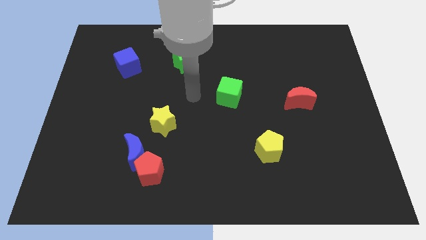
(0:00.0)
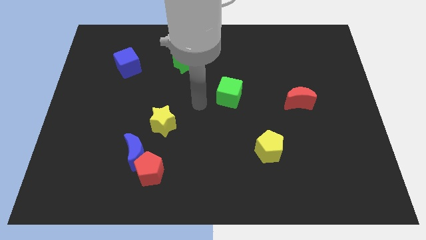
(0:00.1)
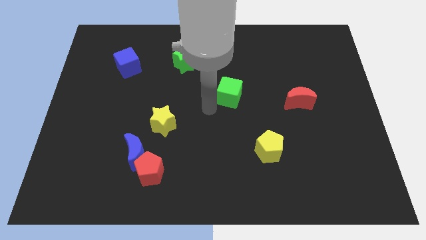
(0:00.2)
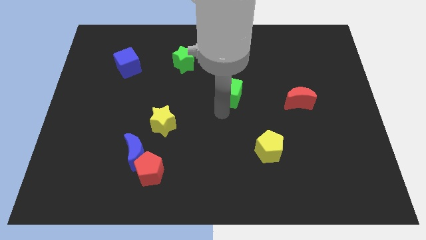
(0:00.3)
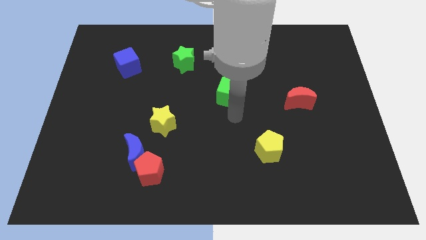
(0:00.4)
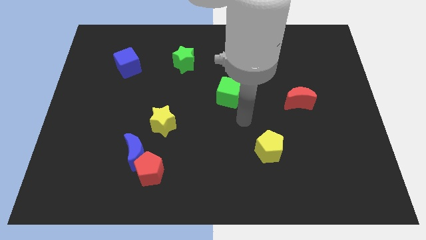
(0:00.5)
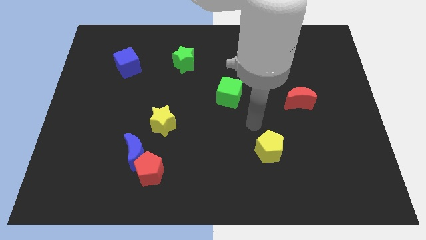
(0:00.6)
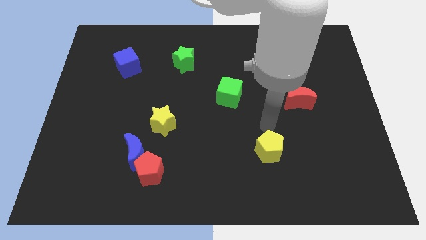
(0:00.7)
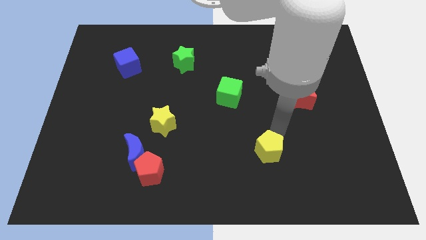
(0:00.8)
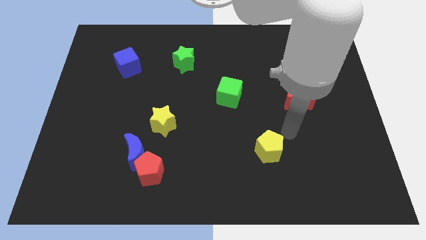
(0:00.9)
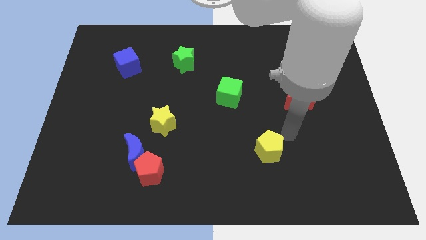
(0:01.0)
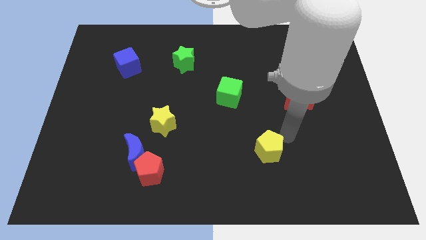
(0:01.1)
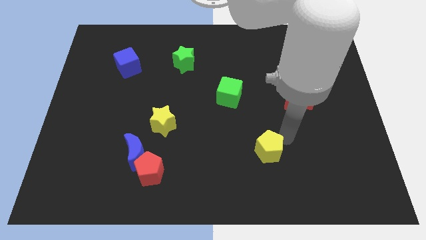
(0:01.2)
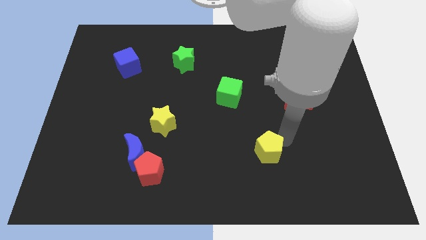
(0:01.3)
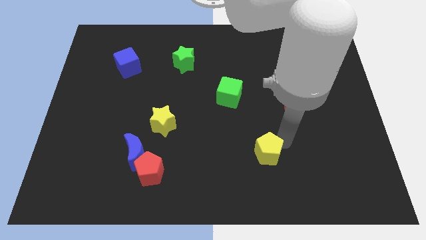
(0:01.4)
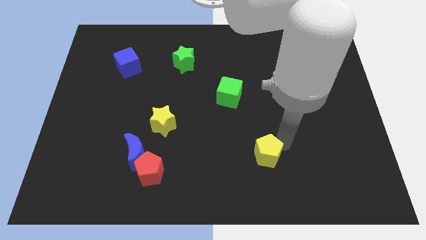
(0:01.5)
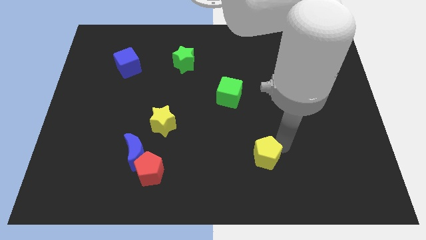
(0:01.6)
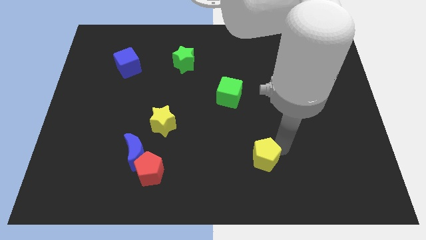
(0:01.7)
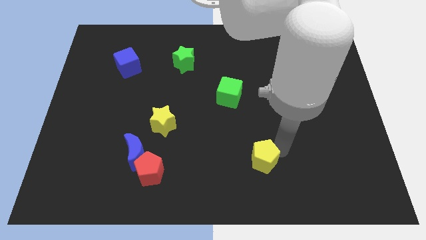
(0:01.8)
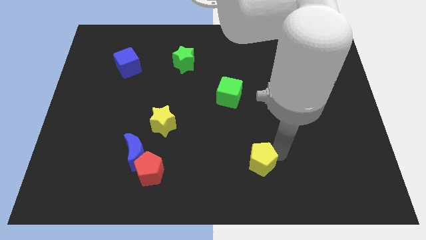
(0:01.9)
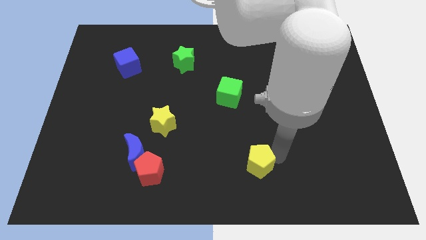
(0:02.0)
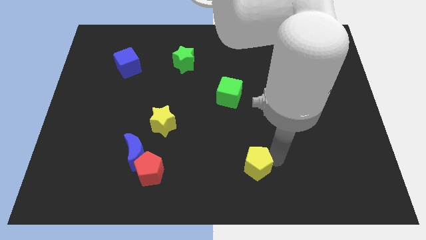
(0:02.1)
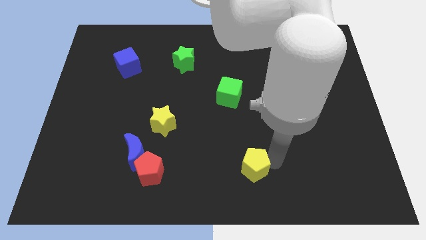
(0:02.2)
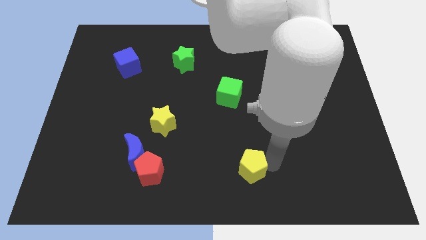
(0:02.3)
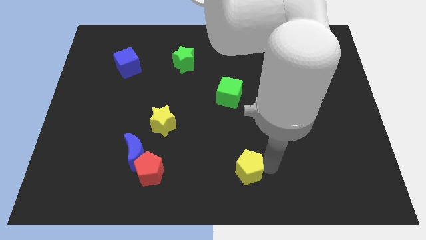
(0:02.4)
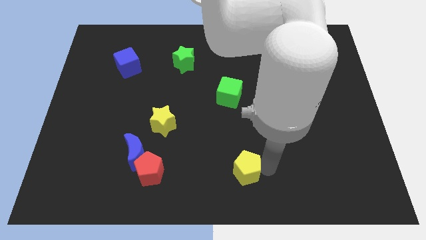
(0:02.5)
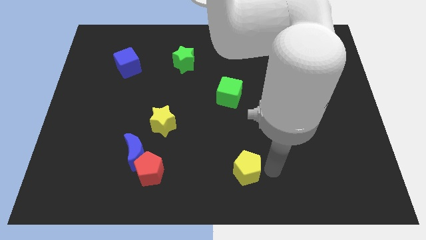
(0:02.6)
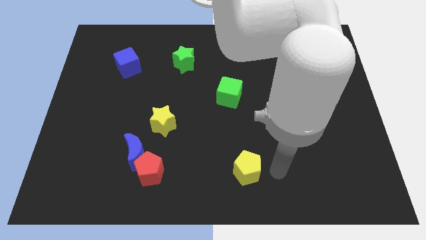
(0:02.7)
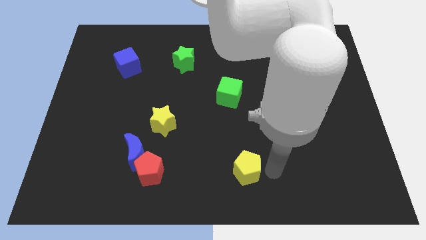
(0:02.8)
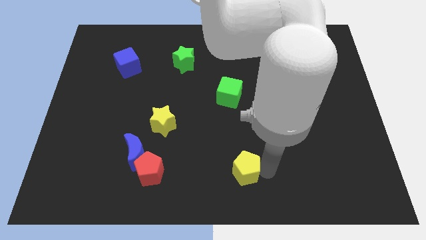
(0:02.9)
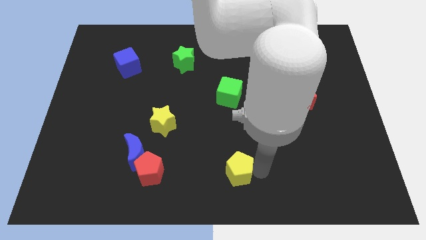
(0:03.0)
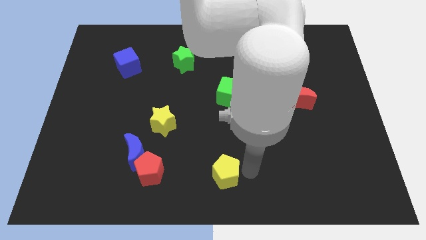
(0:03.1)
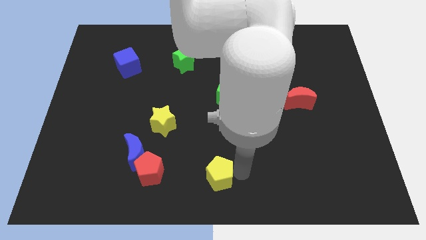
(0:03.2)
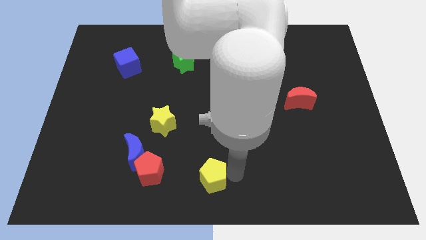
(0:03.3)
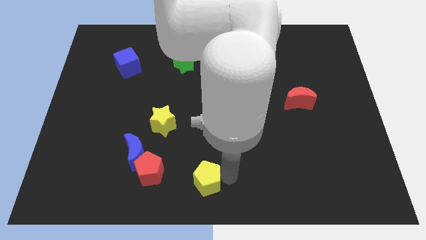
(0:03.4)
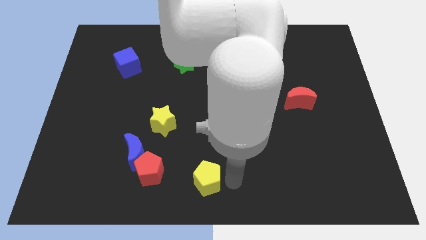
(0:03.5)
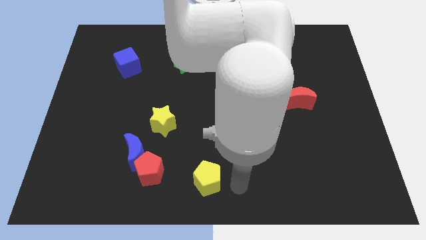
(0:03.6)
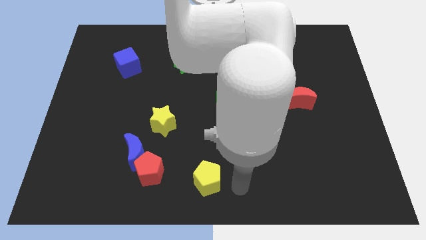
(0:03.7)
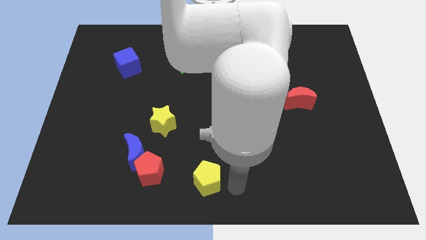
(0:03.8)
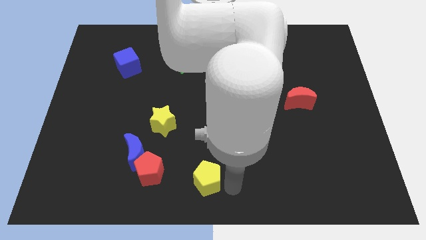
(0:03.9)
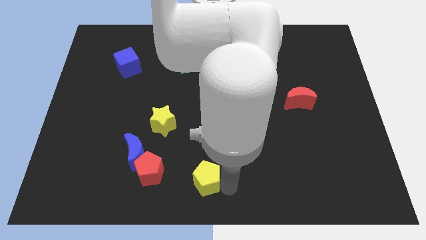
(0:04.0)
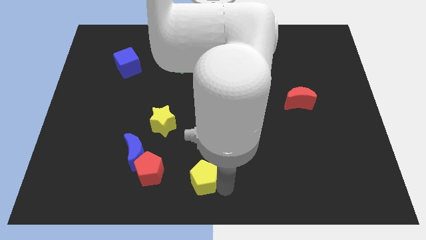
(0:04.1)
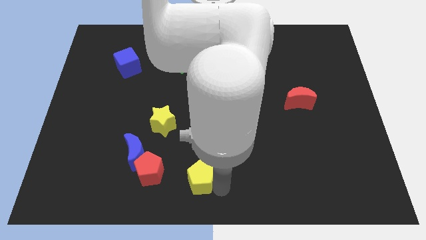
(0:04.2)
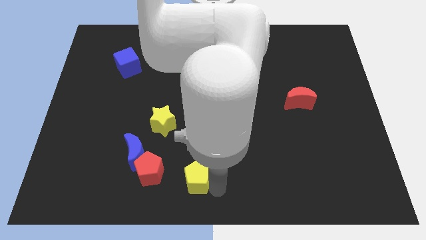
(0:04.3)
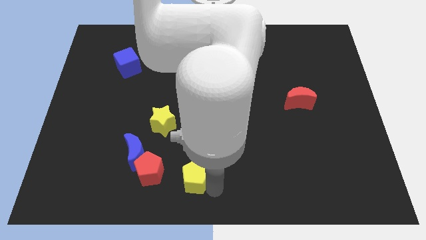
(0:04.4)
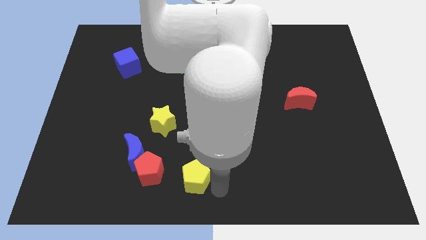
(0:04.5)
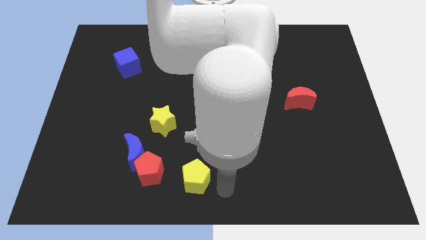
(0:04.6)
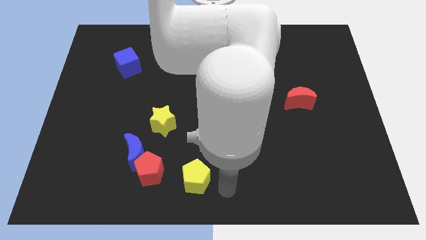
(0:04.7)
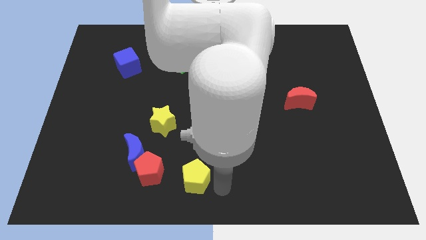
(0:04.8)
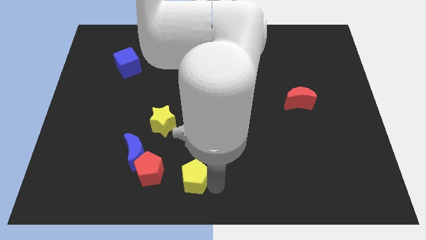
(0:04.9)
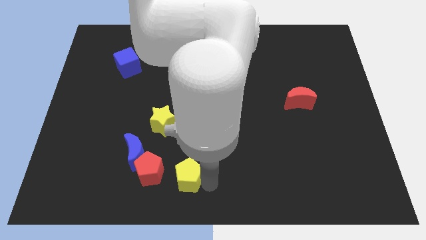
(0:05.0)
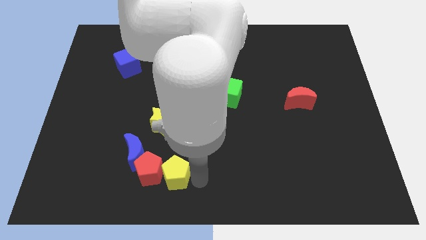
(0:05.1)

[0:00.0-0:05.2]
push the yellow pentagon close to the red pentagon

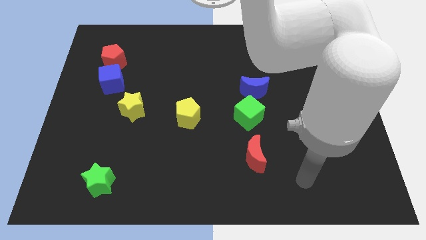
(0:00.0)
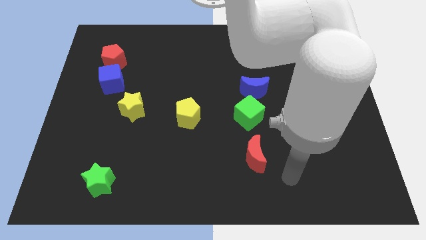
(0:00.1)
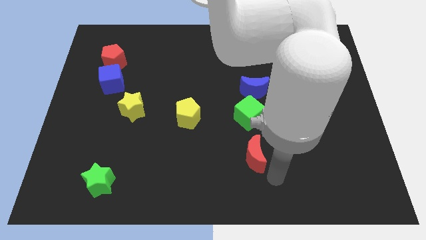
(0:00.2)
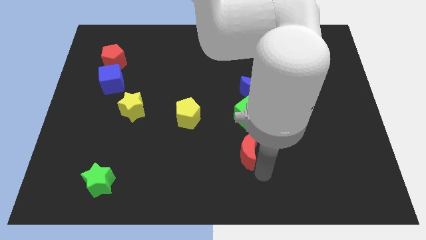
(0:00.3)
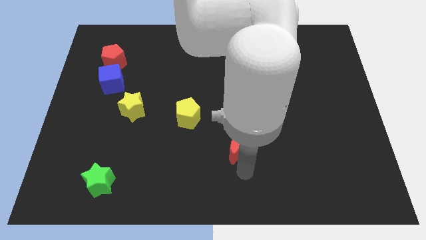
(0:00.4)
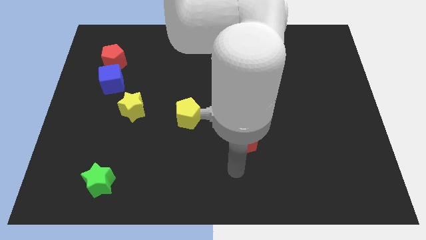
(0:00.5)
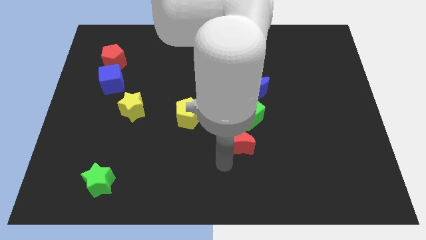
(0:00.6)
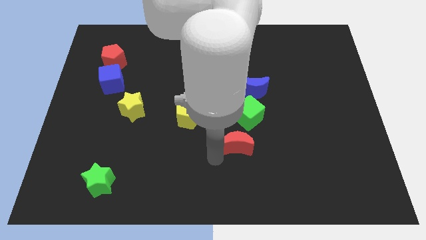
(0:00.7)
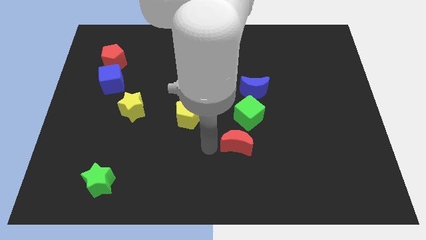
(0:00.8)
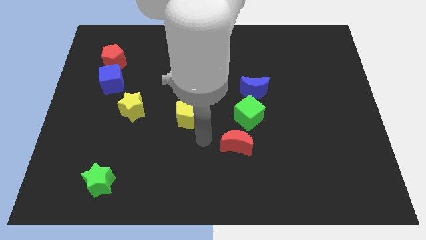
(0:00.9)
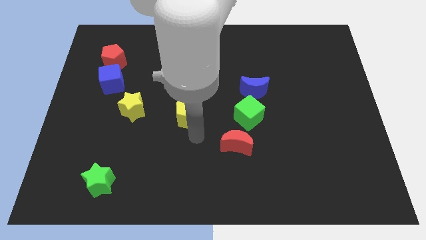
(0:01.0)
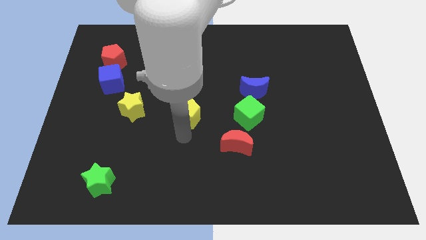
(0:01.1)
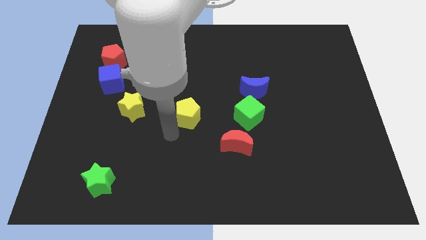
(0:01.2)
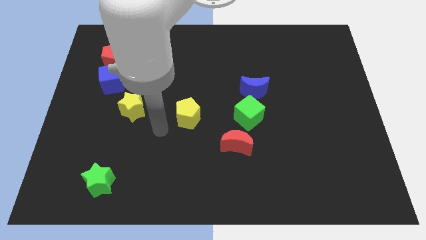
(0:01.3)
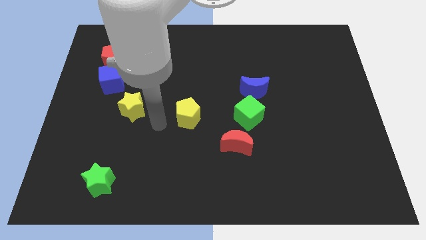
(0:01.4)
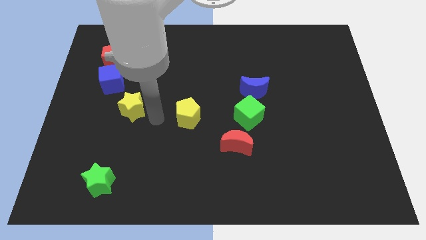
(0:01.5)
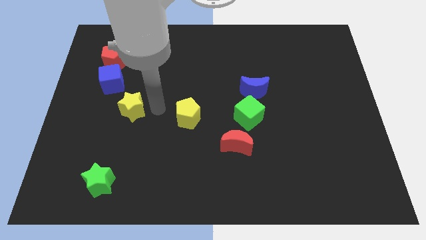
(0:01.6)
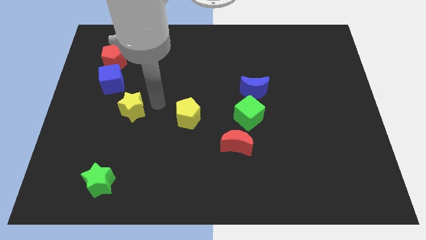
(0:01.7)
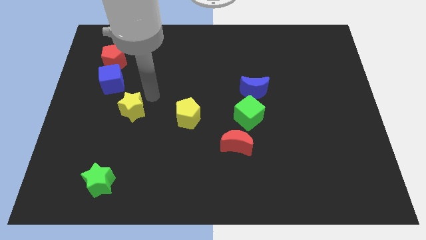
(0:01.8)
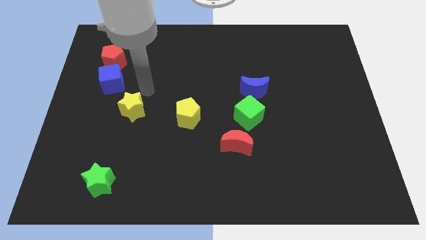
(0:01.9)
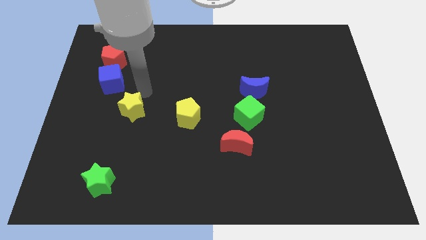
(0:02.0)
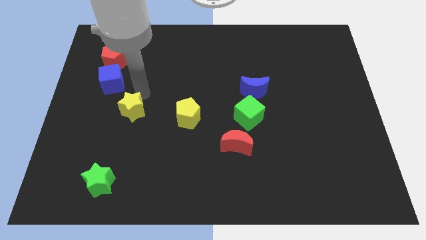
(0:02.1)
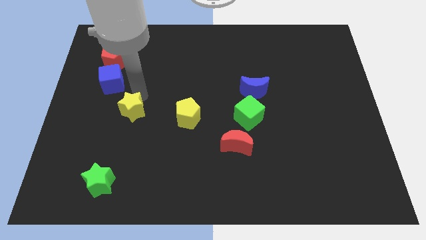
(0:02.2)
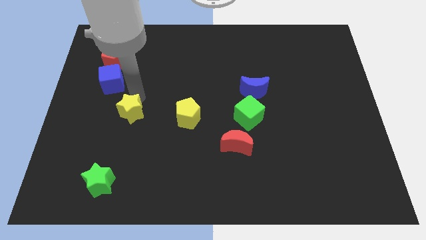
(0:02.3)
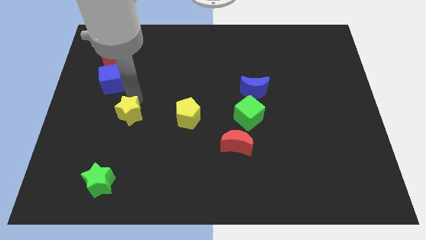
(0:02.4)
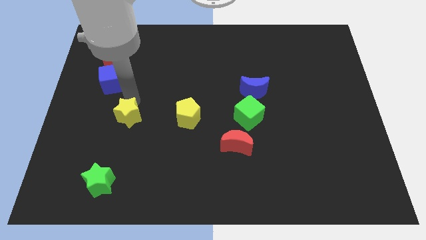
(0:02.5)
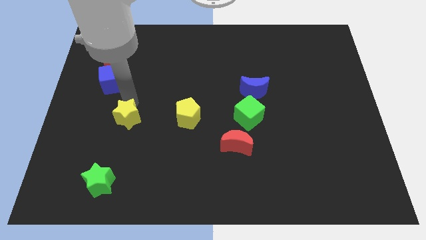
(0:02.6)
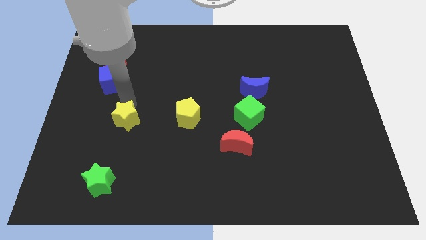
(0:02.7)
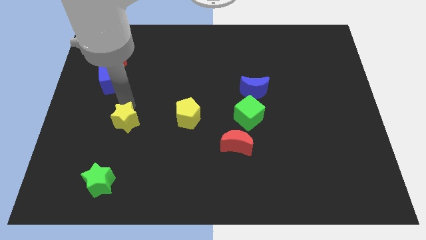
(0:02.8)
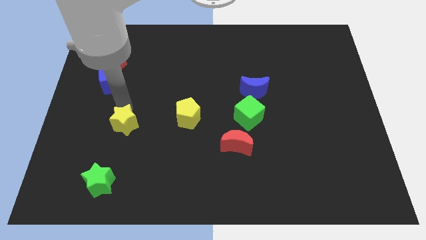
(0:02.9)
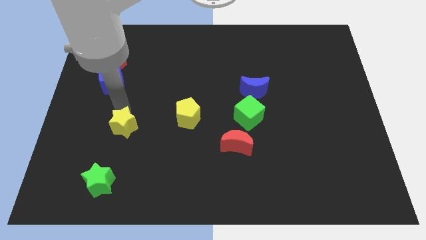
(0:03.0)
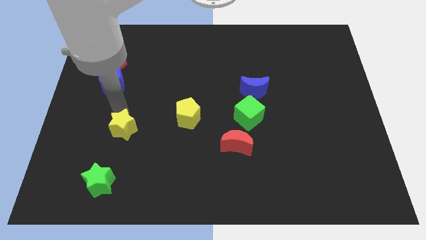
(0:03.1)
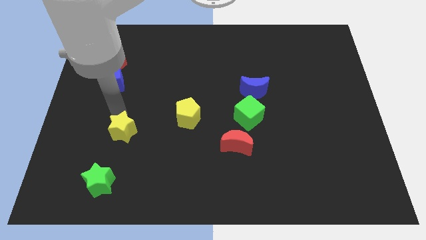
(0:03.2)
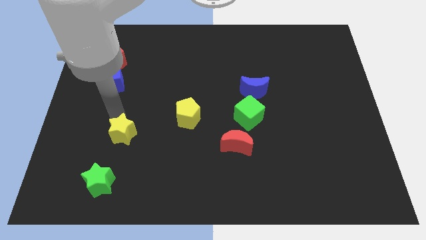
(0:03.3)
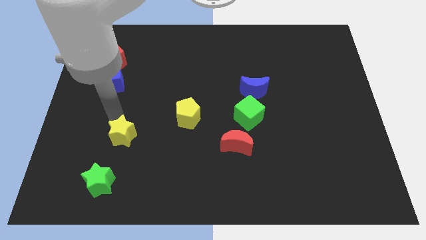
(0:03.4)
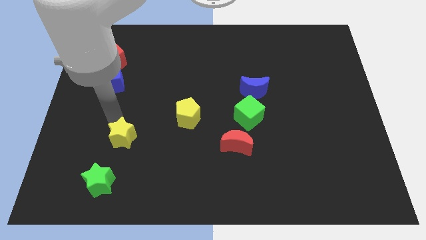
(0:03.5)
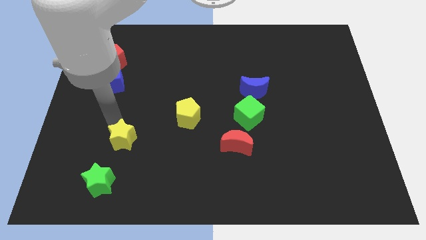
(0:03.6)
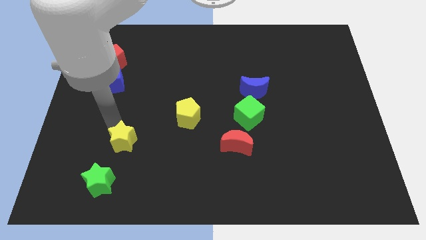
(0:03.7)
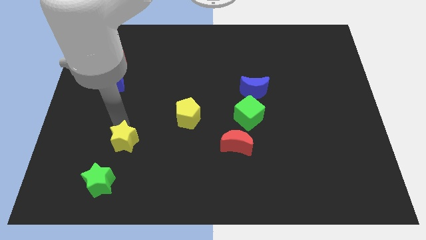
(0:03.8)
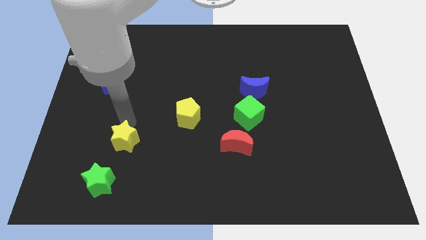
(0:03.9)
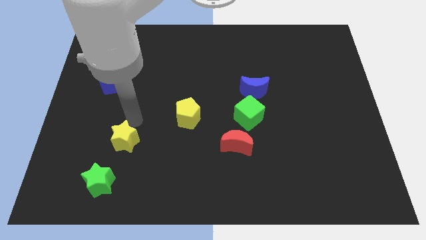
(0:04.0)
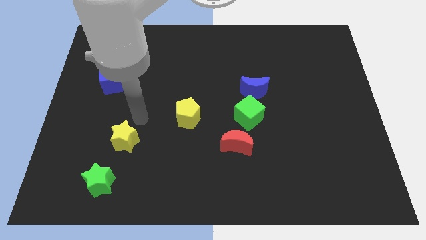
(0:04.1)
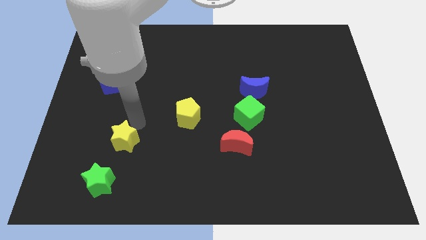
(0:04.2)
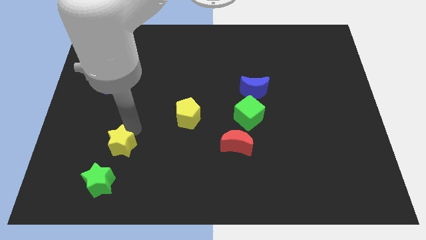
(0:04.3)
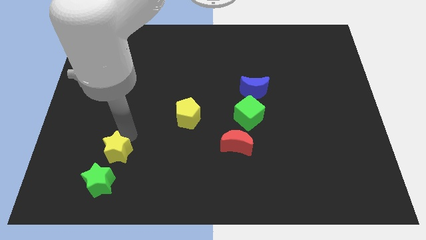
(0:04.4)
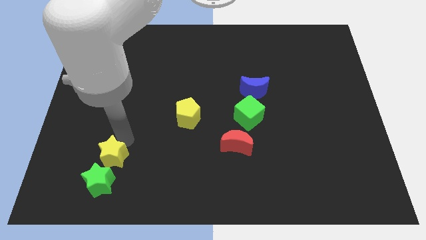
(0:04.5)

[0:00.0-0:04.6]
slide the yellow star to the green star
